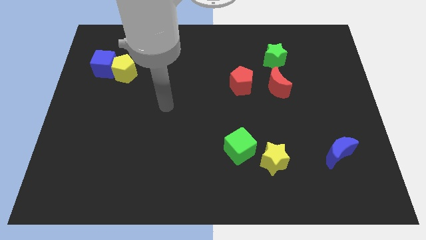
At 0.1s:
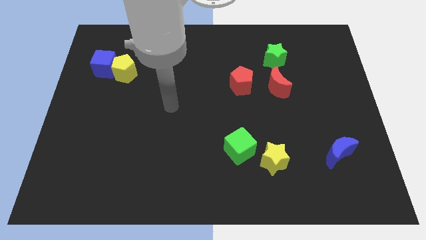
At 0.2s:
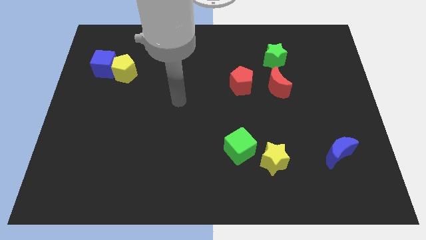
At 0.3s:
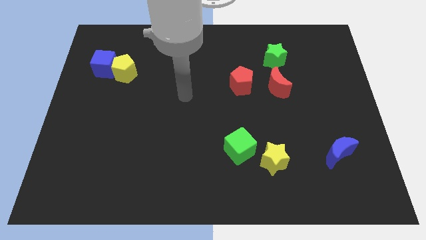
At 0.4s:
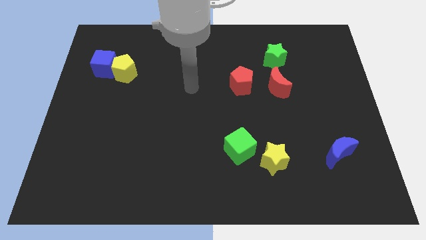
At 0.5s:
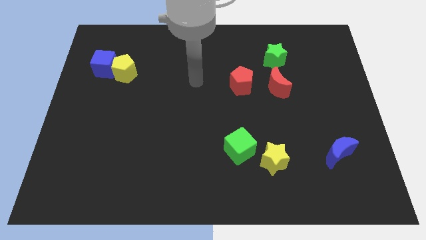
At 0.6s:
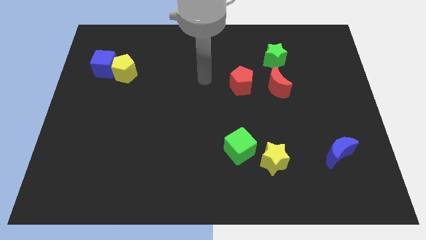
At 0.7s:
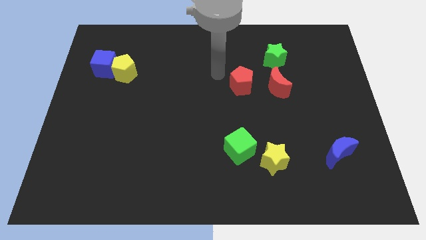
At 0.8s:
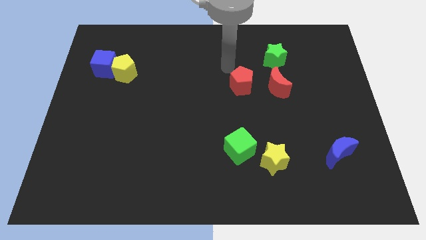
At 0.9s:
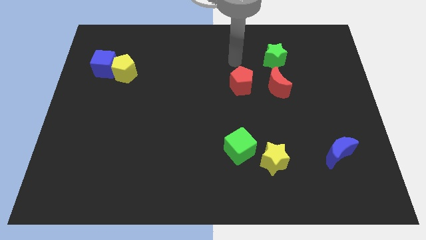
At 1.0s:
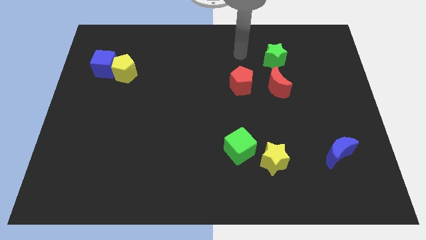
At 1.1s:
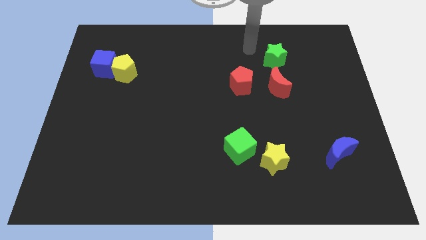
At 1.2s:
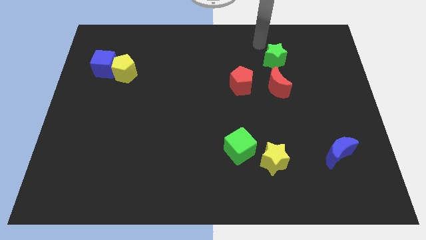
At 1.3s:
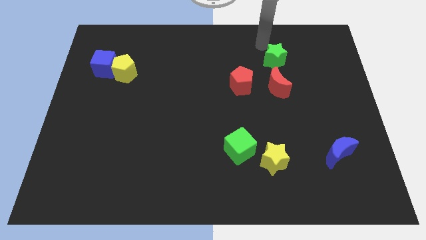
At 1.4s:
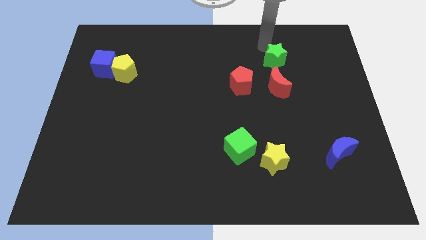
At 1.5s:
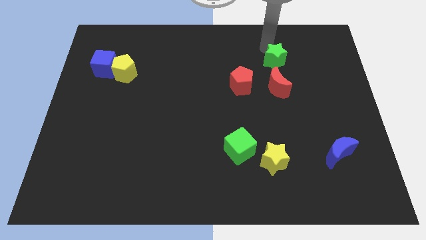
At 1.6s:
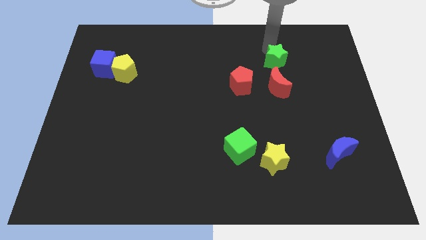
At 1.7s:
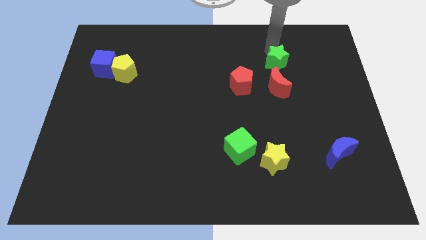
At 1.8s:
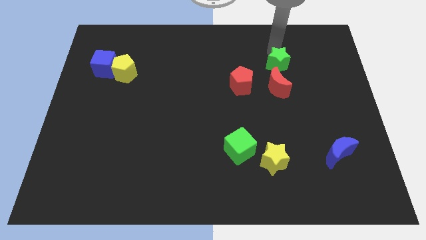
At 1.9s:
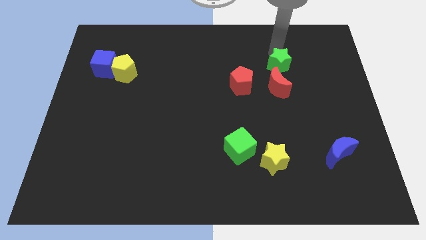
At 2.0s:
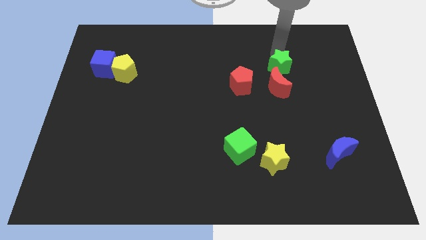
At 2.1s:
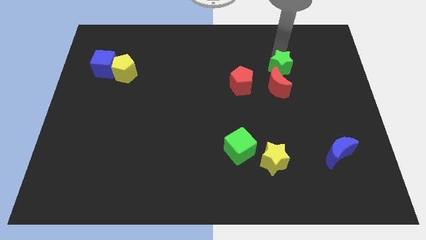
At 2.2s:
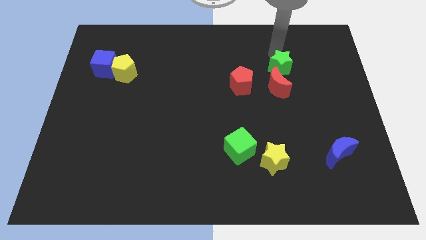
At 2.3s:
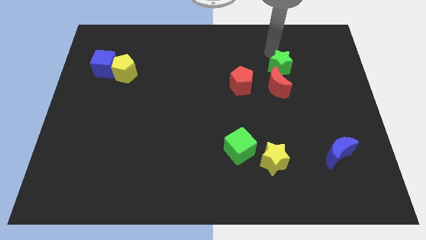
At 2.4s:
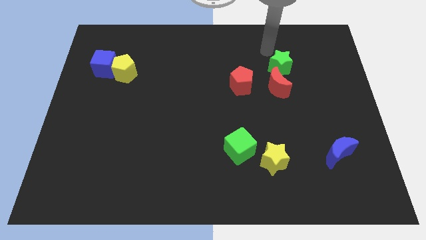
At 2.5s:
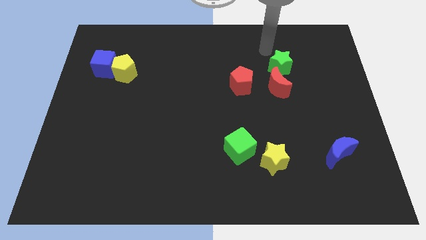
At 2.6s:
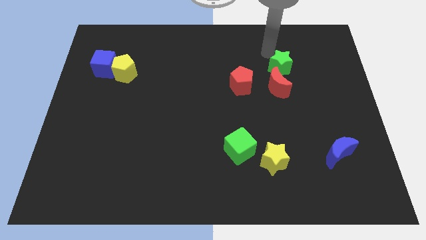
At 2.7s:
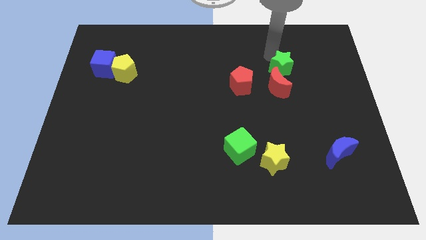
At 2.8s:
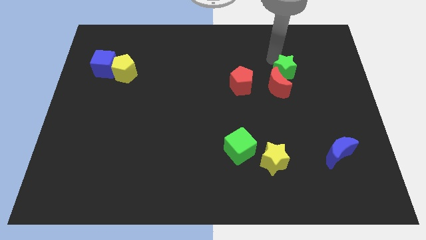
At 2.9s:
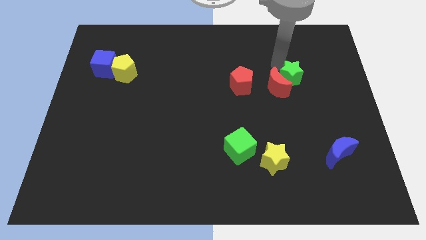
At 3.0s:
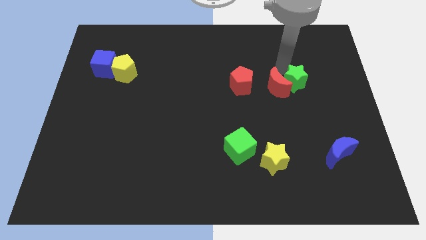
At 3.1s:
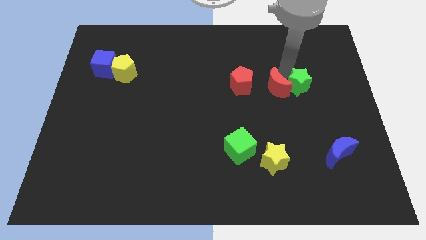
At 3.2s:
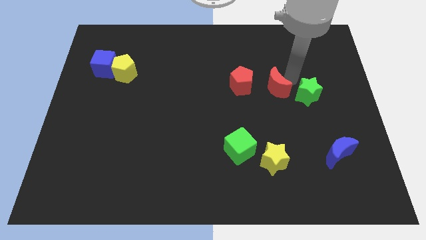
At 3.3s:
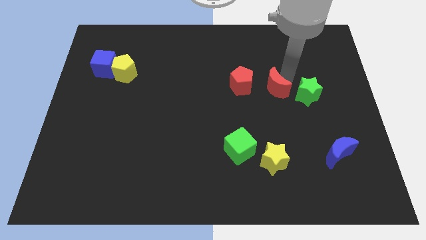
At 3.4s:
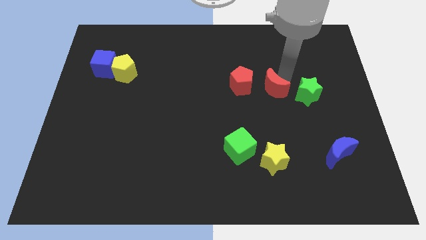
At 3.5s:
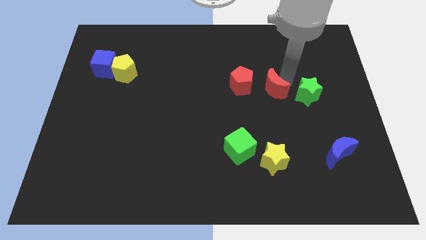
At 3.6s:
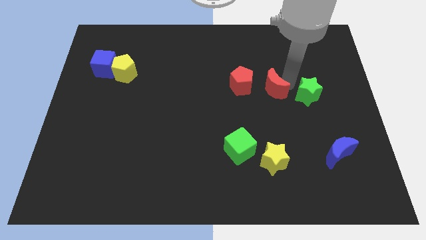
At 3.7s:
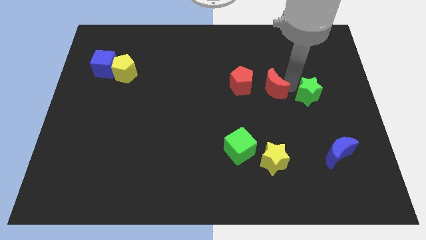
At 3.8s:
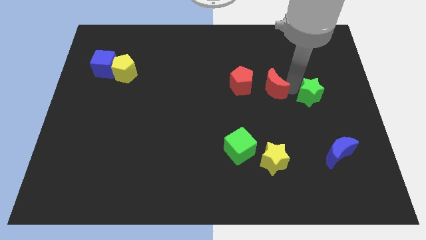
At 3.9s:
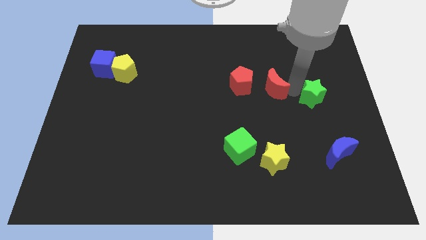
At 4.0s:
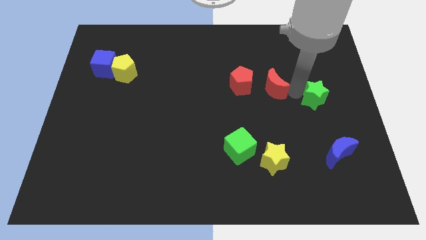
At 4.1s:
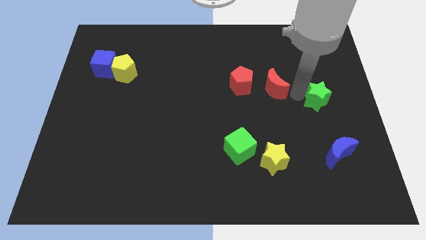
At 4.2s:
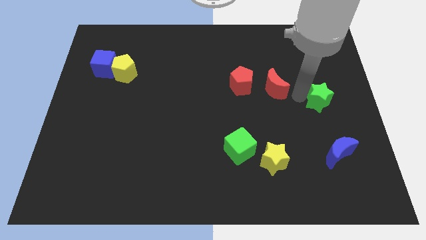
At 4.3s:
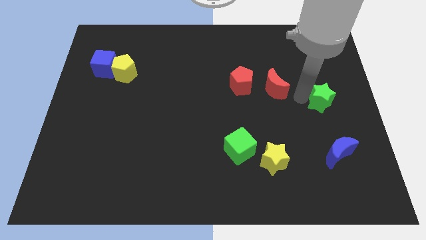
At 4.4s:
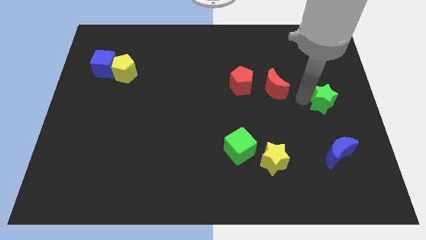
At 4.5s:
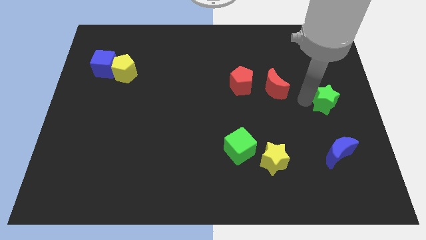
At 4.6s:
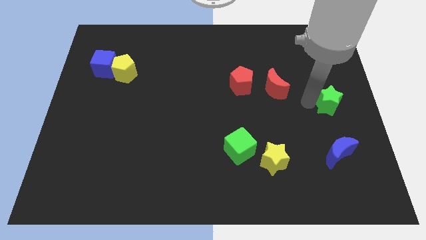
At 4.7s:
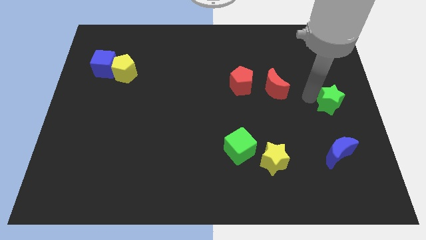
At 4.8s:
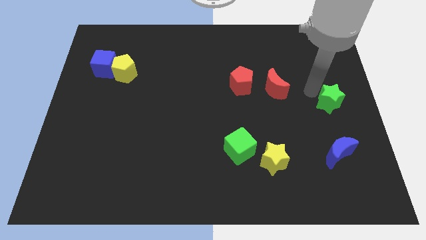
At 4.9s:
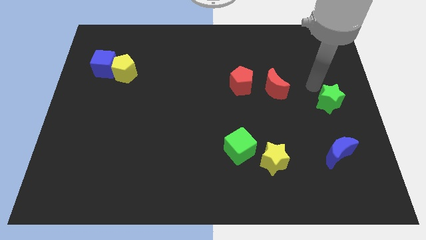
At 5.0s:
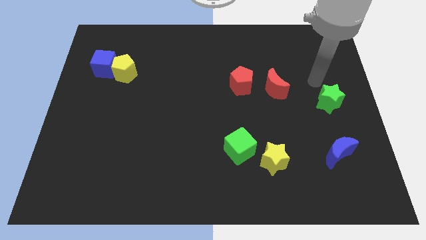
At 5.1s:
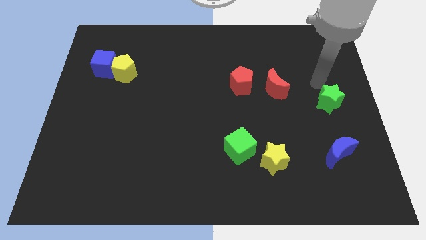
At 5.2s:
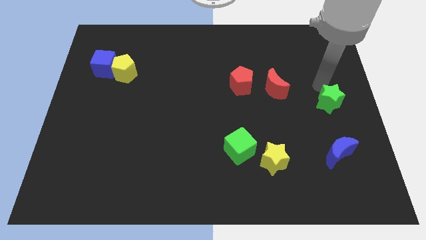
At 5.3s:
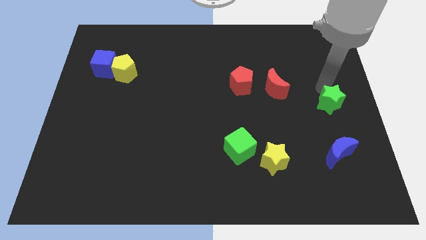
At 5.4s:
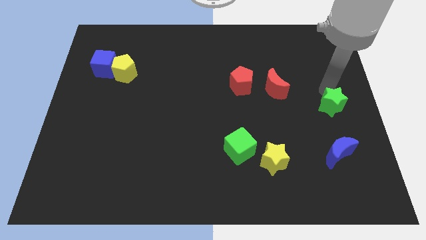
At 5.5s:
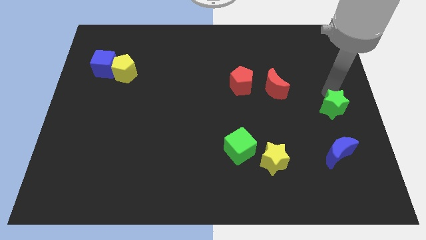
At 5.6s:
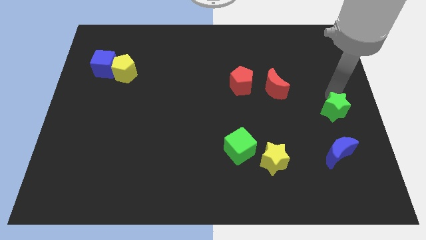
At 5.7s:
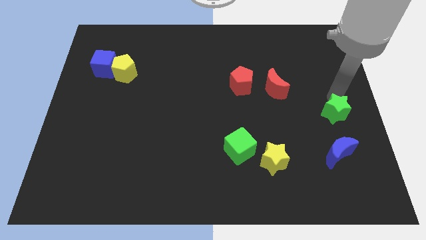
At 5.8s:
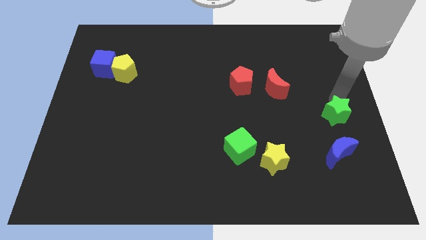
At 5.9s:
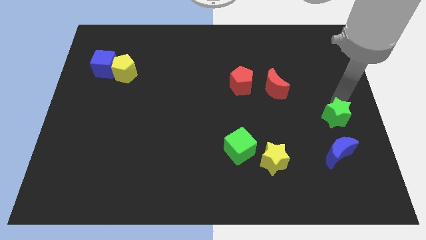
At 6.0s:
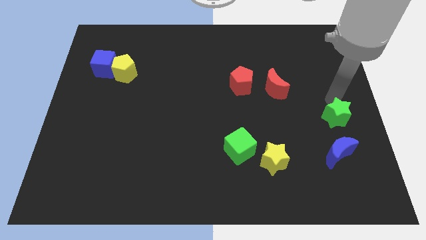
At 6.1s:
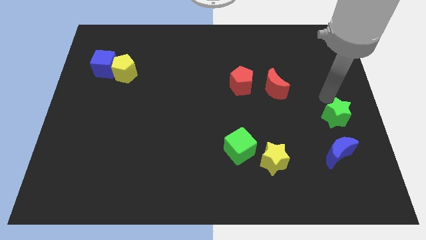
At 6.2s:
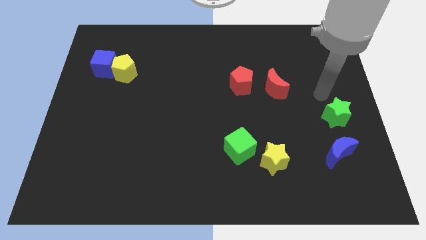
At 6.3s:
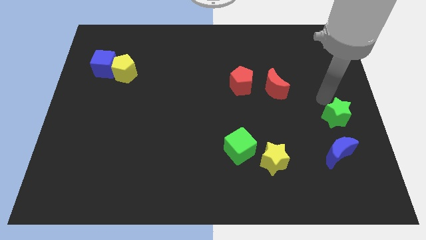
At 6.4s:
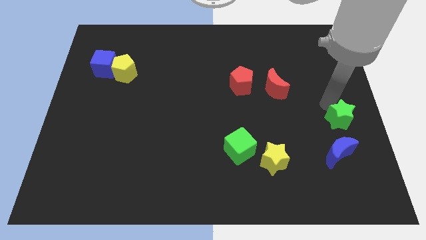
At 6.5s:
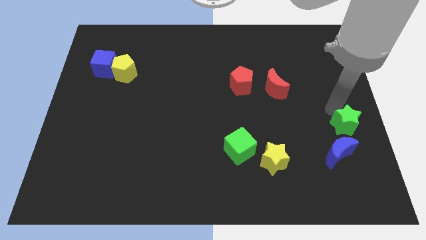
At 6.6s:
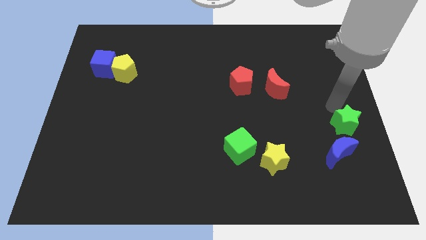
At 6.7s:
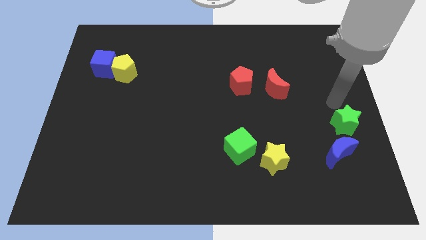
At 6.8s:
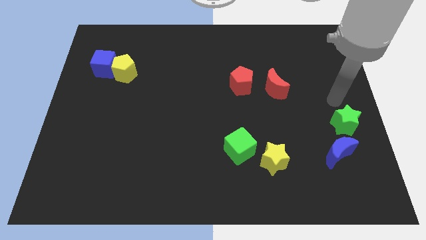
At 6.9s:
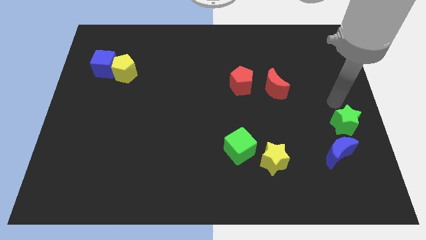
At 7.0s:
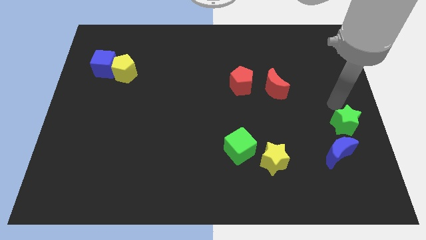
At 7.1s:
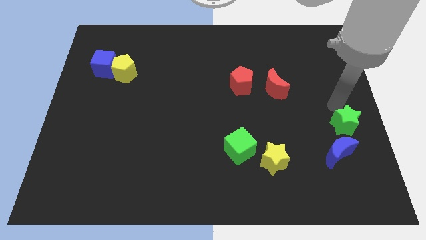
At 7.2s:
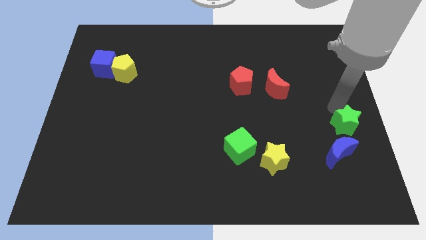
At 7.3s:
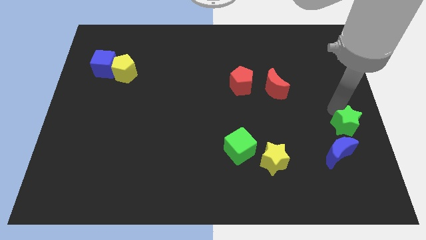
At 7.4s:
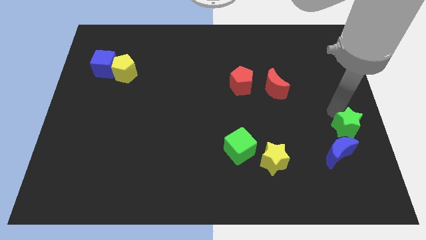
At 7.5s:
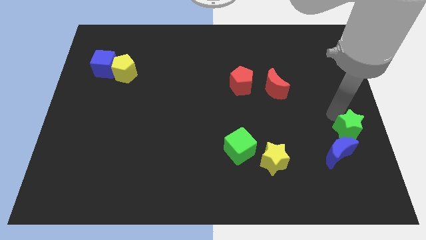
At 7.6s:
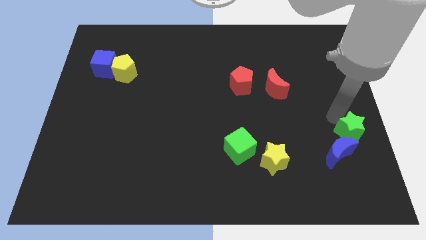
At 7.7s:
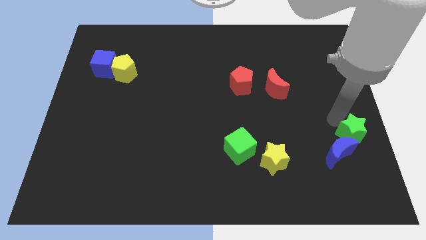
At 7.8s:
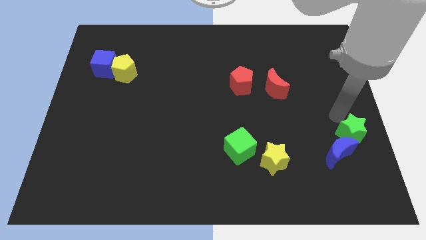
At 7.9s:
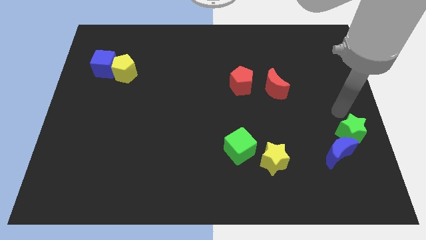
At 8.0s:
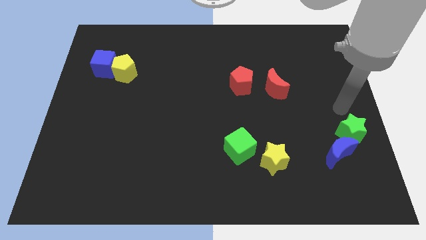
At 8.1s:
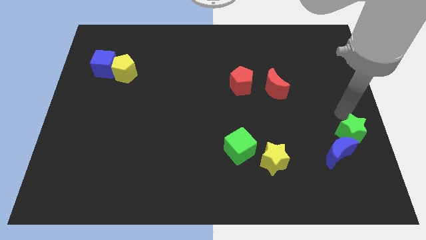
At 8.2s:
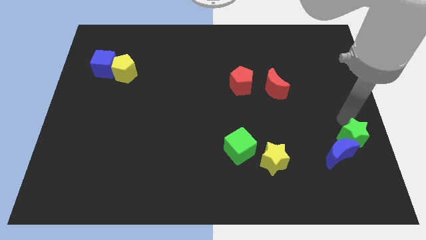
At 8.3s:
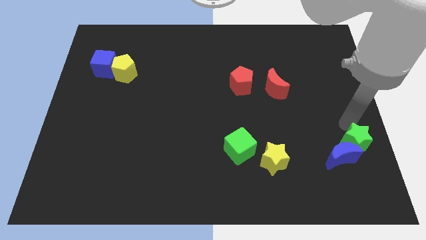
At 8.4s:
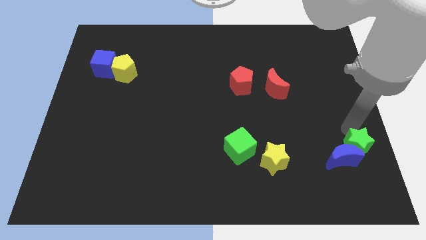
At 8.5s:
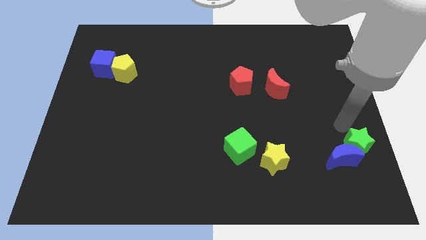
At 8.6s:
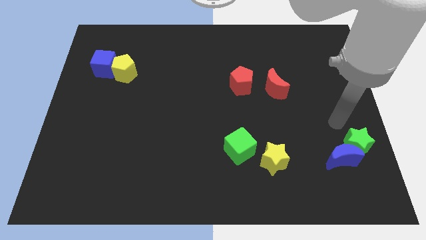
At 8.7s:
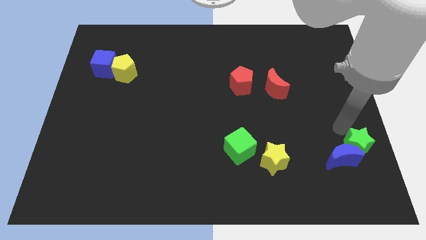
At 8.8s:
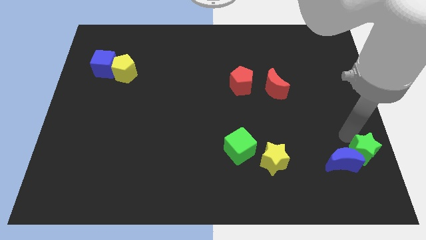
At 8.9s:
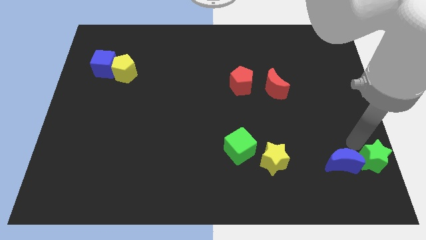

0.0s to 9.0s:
slide the green star to the bottom right corner
